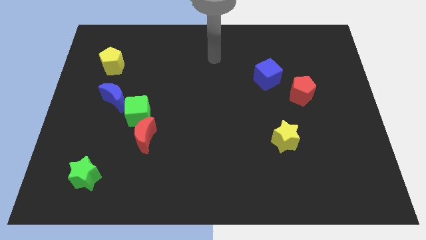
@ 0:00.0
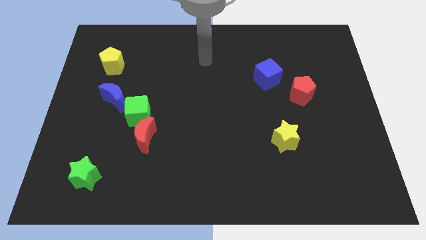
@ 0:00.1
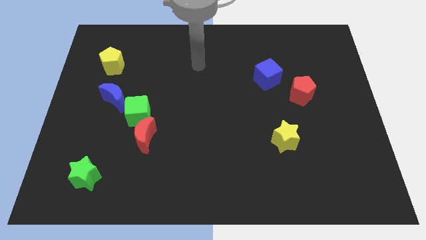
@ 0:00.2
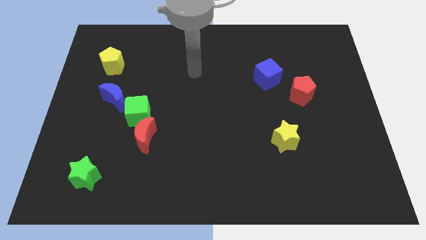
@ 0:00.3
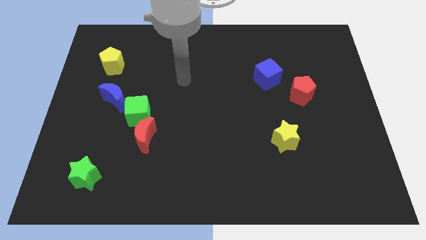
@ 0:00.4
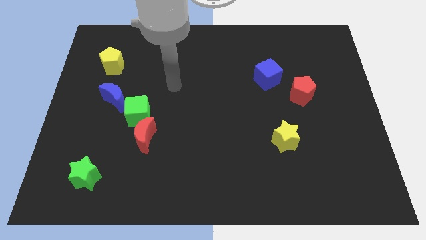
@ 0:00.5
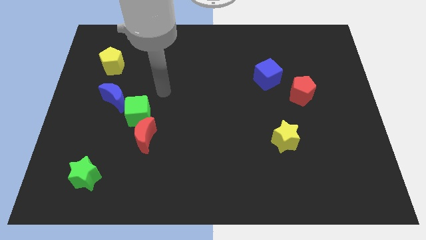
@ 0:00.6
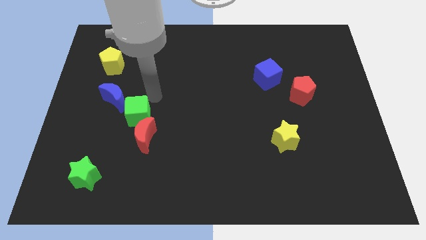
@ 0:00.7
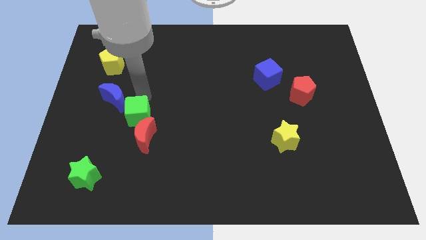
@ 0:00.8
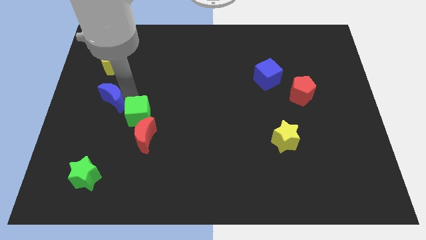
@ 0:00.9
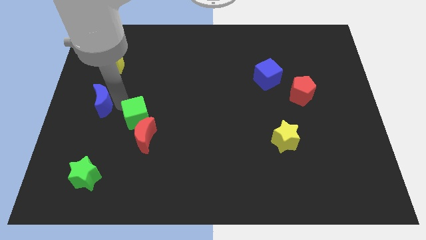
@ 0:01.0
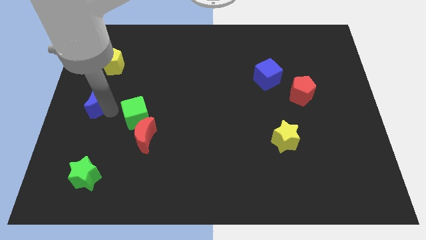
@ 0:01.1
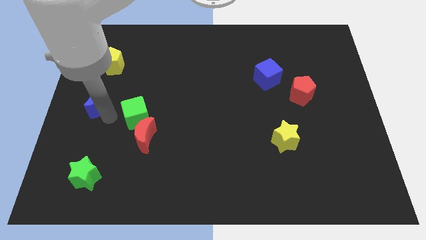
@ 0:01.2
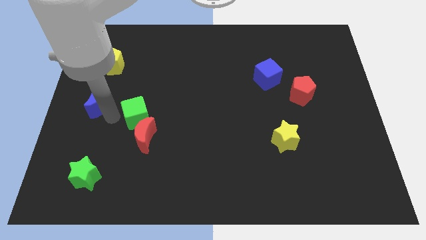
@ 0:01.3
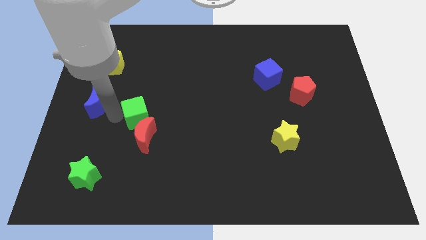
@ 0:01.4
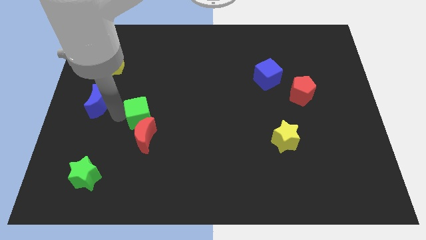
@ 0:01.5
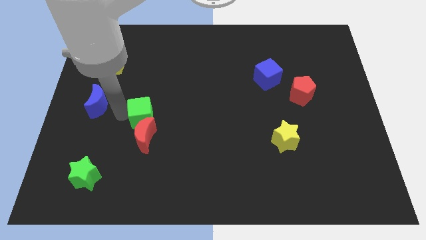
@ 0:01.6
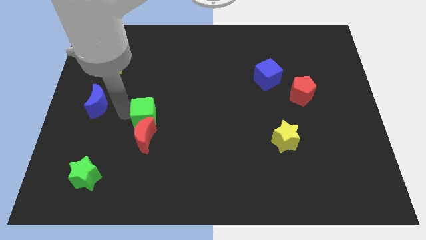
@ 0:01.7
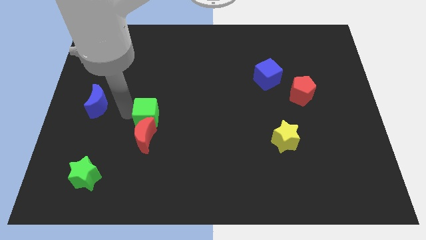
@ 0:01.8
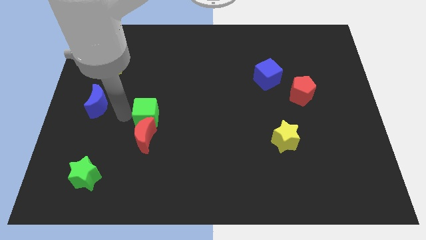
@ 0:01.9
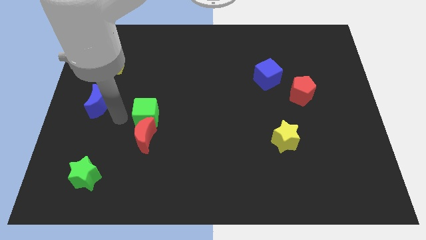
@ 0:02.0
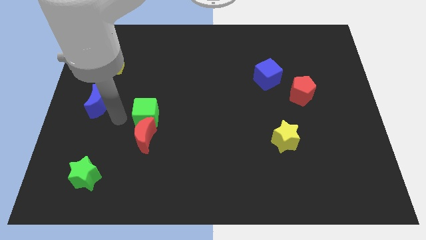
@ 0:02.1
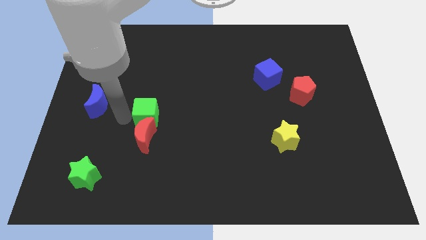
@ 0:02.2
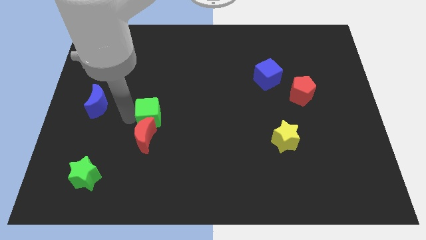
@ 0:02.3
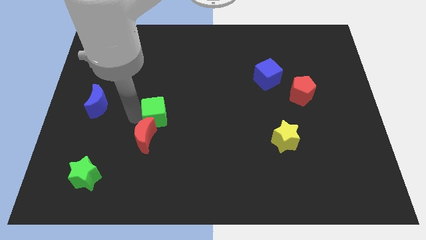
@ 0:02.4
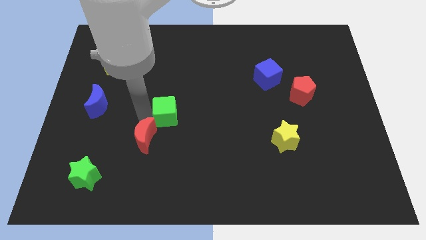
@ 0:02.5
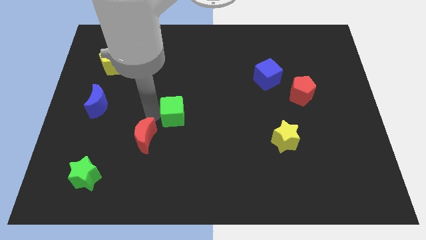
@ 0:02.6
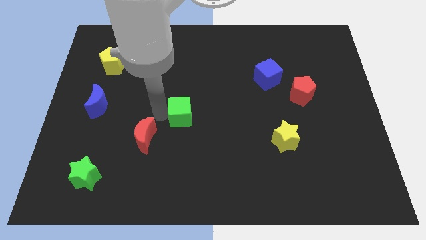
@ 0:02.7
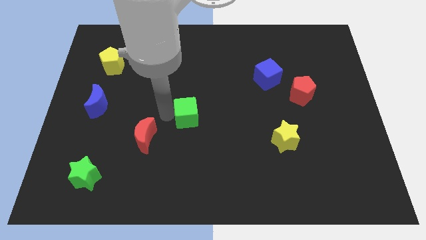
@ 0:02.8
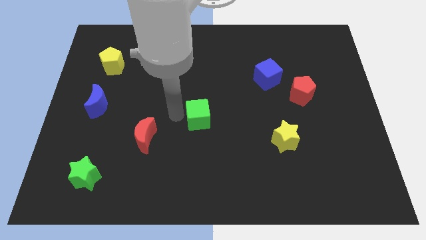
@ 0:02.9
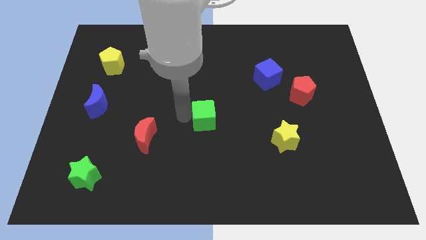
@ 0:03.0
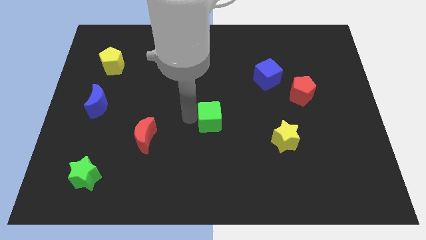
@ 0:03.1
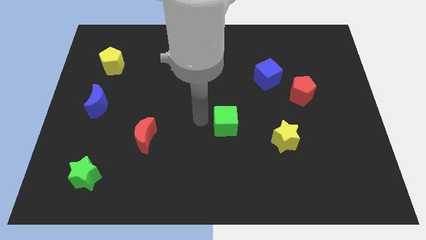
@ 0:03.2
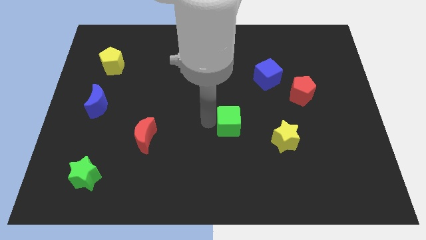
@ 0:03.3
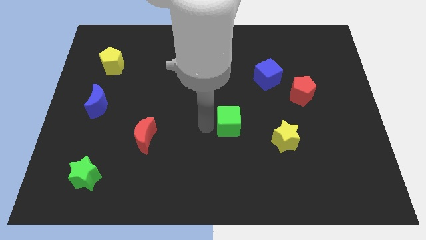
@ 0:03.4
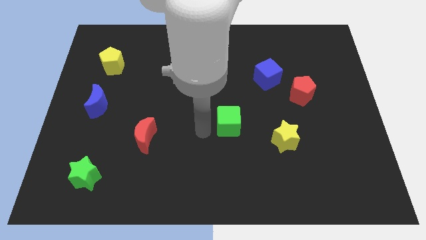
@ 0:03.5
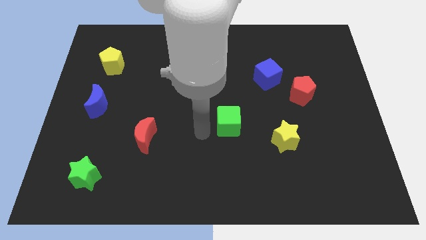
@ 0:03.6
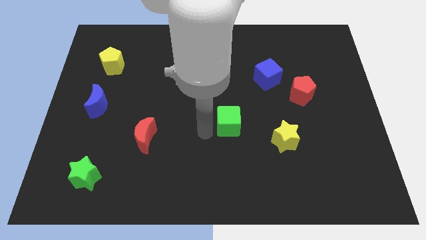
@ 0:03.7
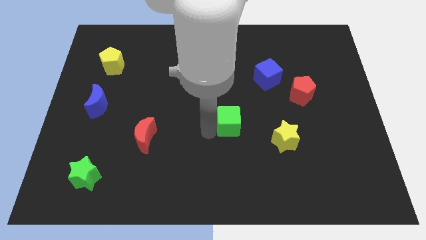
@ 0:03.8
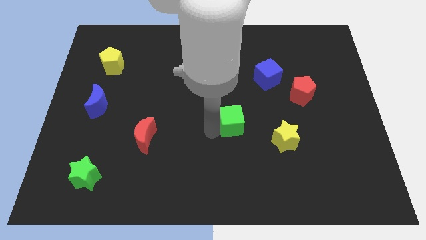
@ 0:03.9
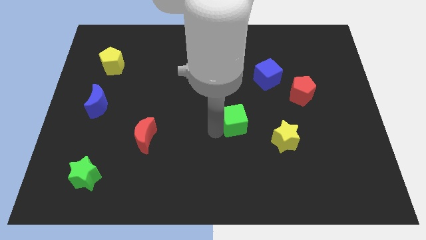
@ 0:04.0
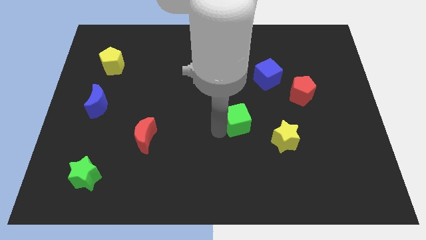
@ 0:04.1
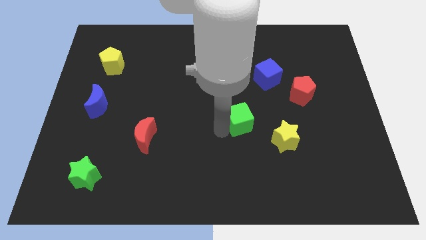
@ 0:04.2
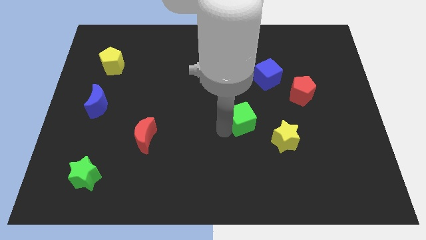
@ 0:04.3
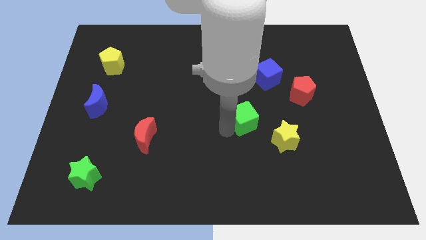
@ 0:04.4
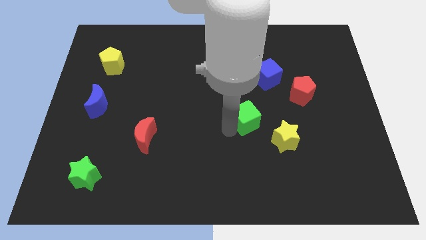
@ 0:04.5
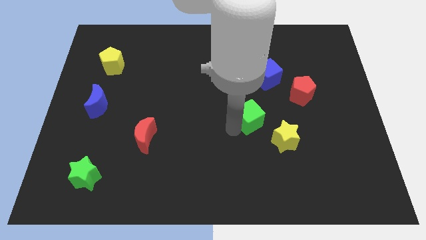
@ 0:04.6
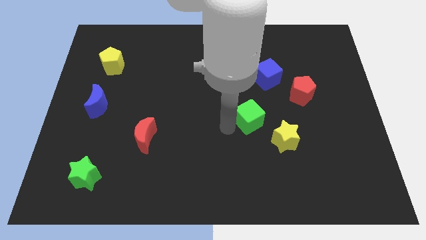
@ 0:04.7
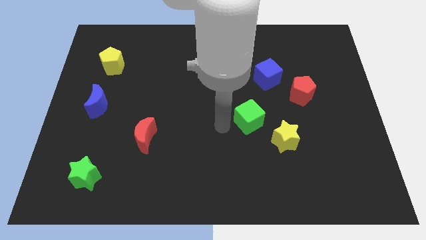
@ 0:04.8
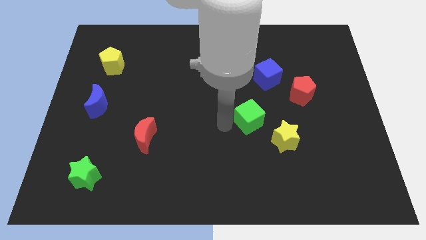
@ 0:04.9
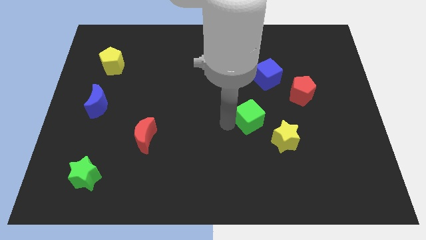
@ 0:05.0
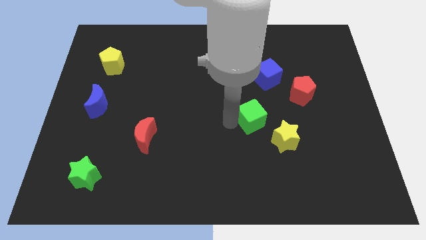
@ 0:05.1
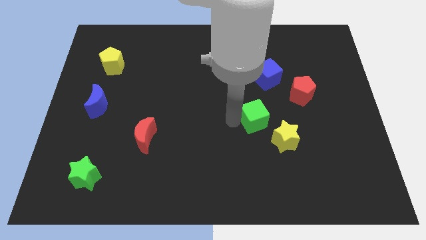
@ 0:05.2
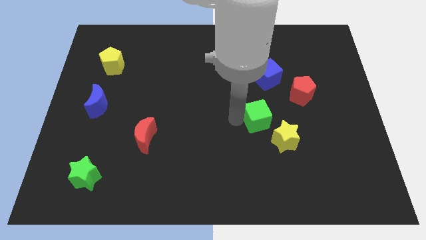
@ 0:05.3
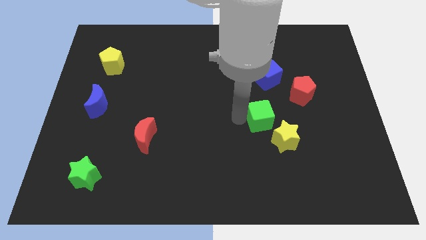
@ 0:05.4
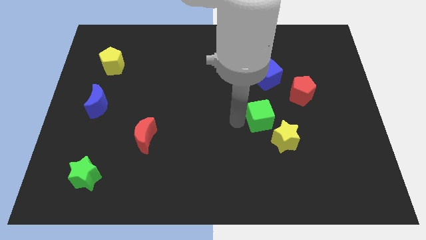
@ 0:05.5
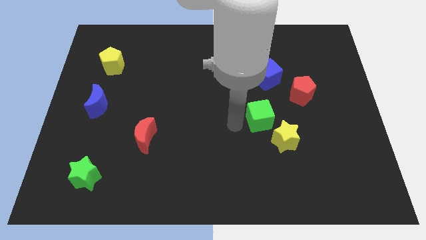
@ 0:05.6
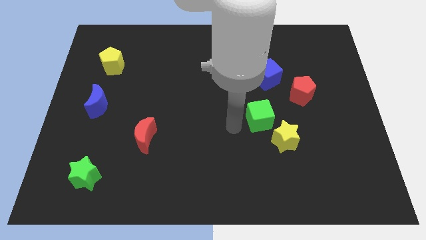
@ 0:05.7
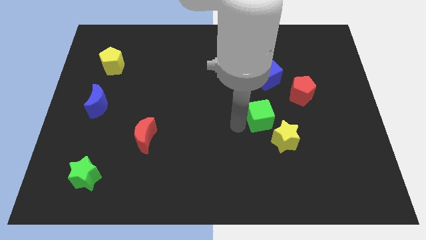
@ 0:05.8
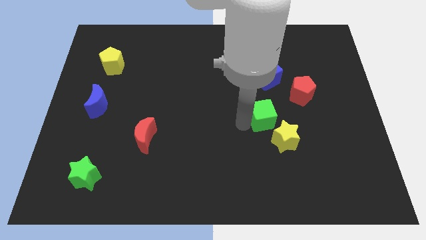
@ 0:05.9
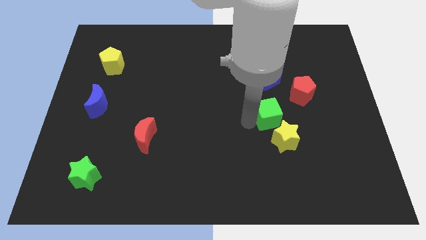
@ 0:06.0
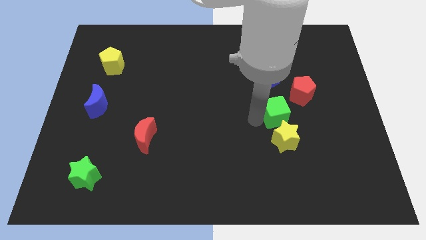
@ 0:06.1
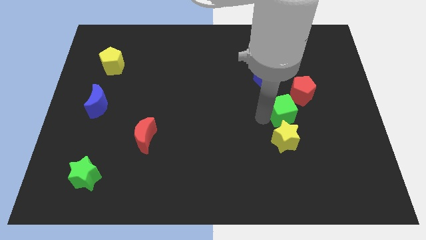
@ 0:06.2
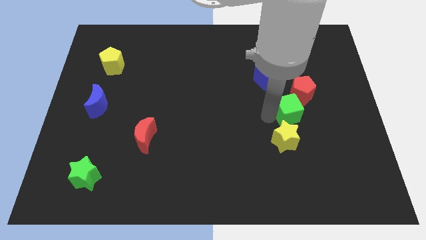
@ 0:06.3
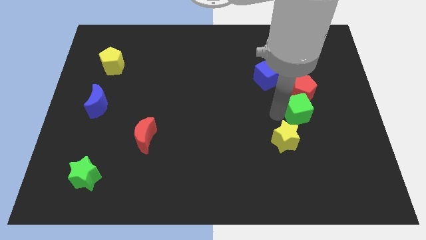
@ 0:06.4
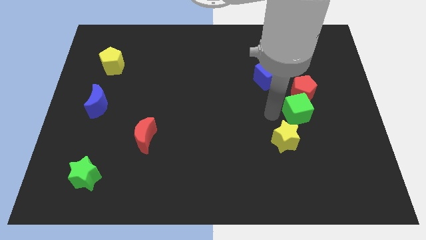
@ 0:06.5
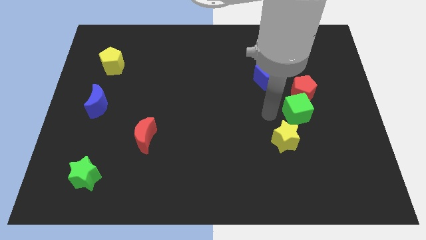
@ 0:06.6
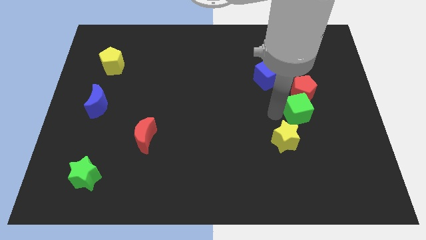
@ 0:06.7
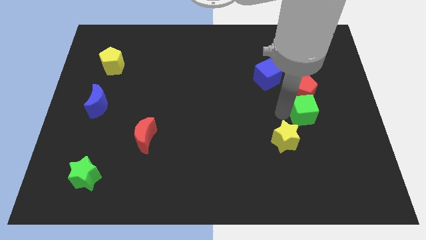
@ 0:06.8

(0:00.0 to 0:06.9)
move the green cube to the bottom right of the red pentagon

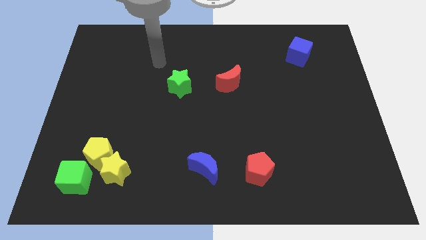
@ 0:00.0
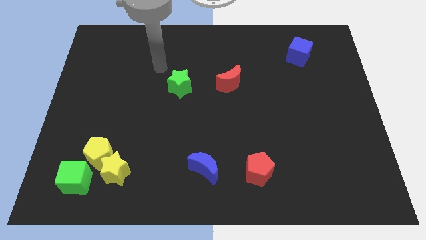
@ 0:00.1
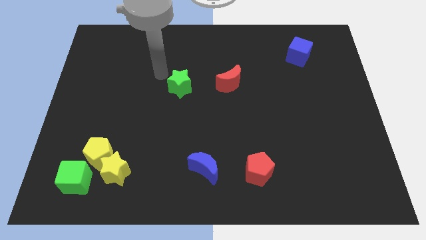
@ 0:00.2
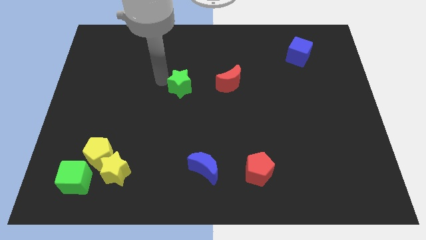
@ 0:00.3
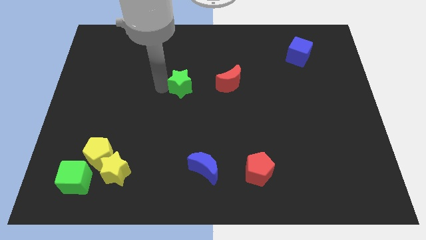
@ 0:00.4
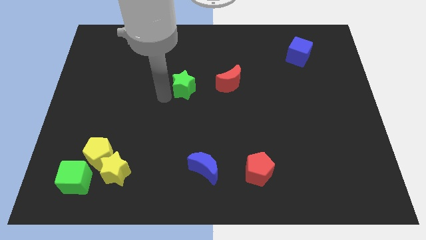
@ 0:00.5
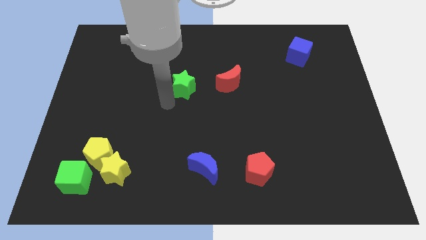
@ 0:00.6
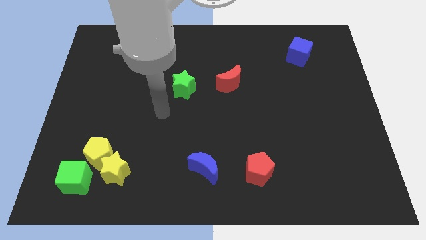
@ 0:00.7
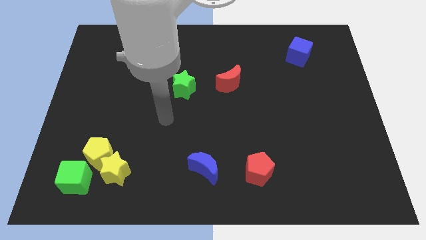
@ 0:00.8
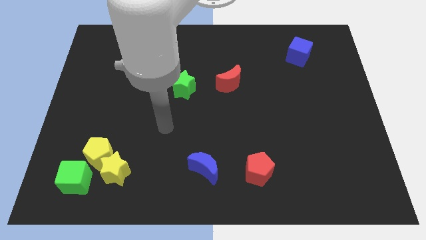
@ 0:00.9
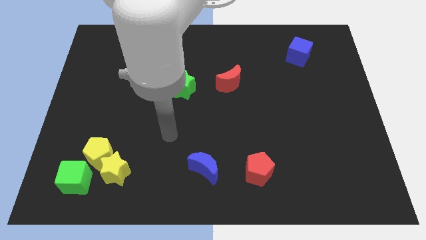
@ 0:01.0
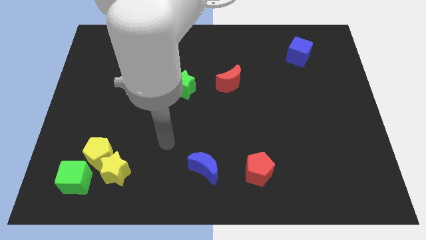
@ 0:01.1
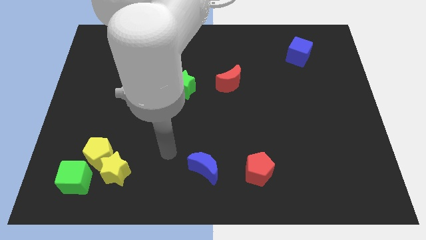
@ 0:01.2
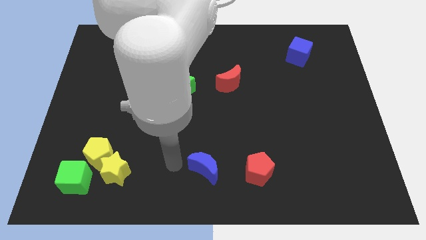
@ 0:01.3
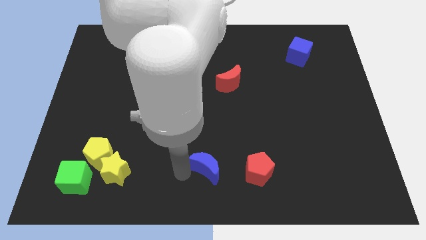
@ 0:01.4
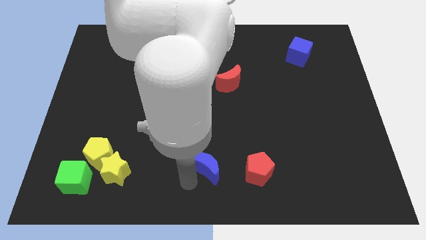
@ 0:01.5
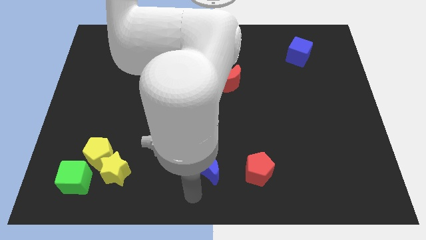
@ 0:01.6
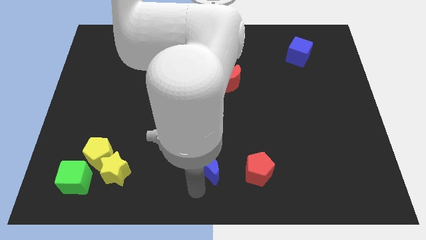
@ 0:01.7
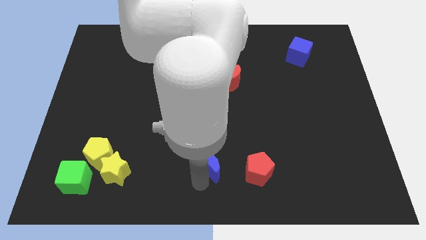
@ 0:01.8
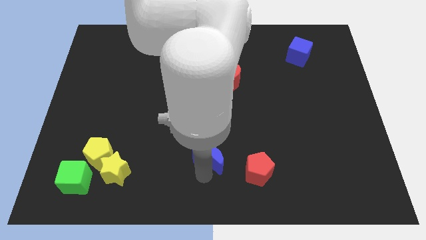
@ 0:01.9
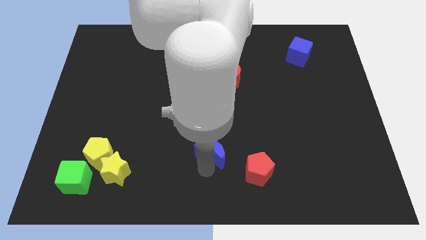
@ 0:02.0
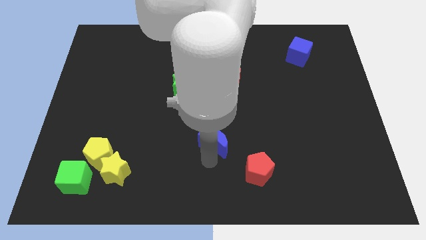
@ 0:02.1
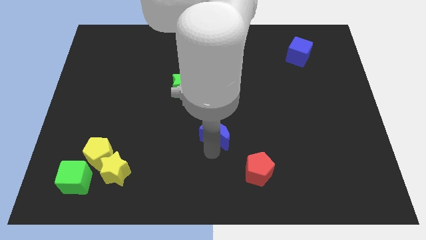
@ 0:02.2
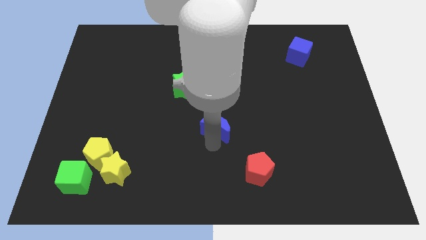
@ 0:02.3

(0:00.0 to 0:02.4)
push the blue moon to the bottom of the red moon
